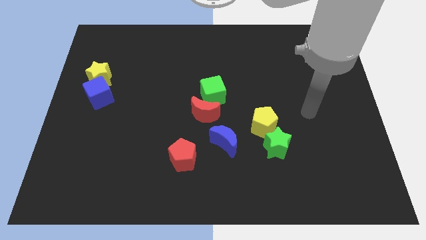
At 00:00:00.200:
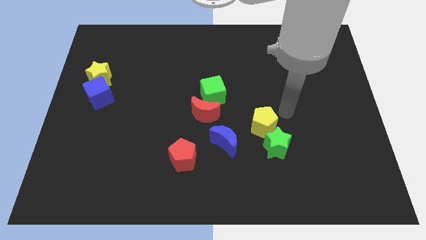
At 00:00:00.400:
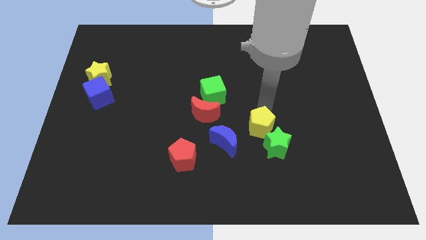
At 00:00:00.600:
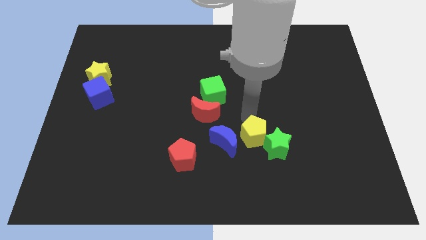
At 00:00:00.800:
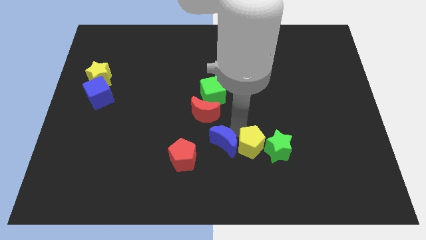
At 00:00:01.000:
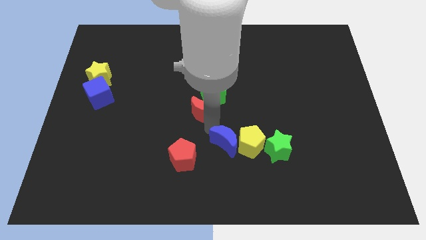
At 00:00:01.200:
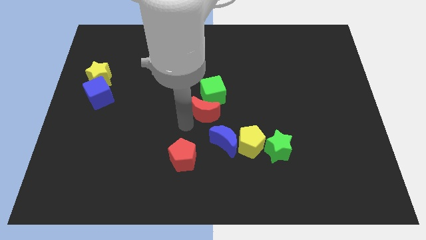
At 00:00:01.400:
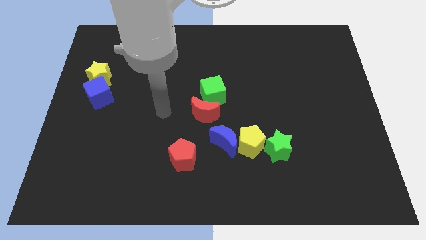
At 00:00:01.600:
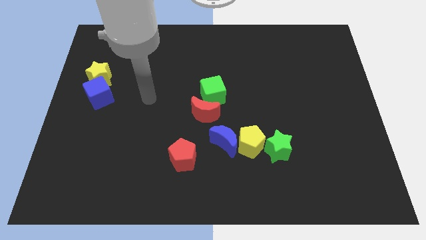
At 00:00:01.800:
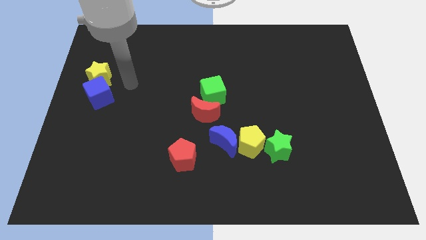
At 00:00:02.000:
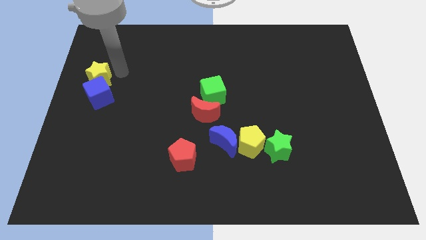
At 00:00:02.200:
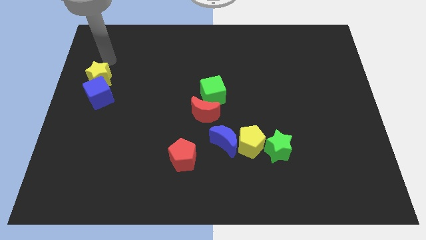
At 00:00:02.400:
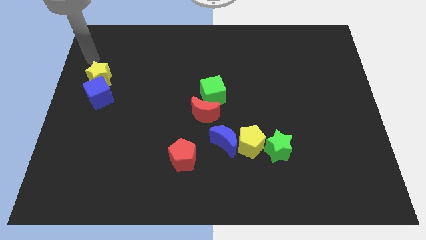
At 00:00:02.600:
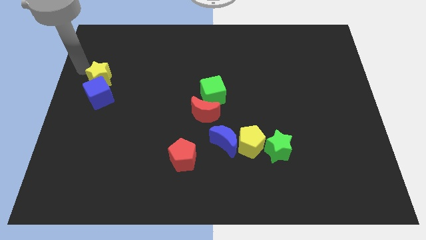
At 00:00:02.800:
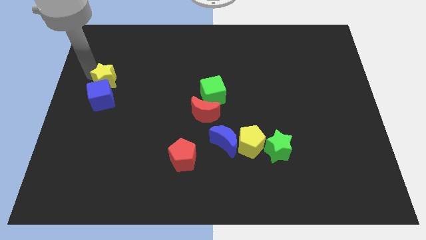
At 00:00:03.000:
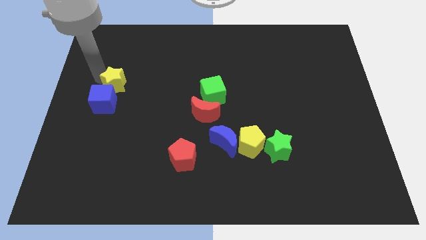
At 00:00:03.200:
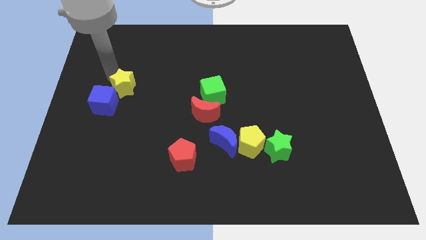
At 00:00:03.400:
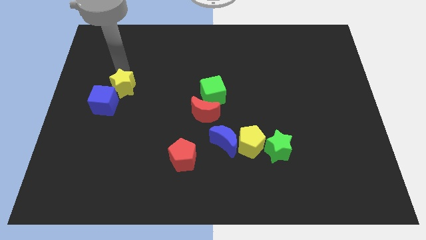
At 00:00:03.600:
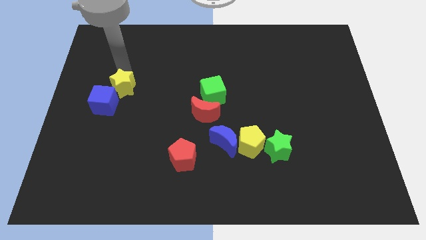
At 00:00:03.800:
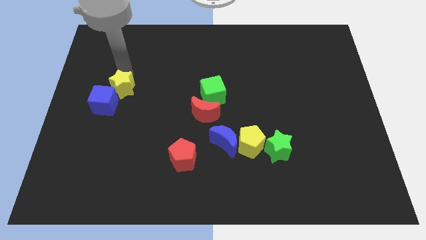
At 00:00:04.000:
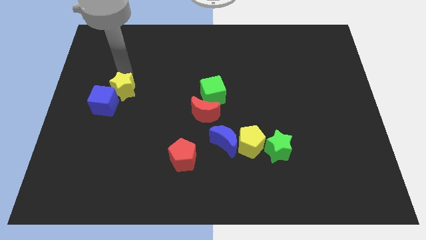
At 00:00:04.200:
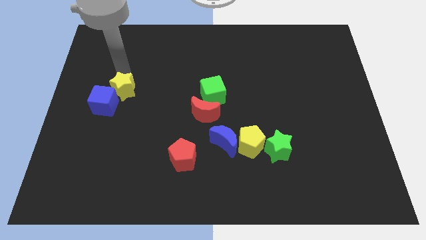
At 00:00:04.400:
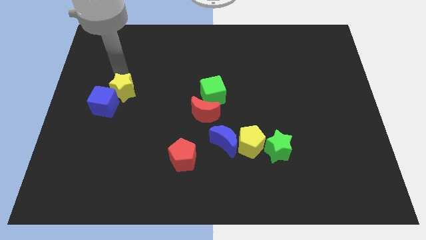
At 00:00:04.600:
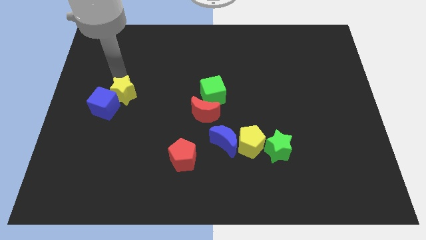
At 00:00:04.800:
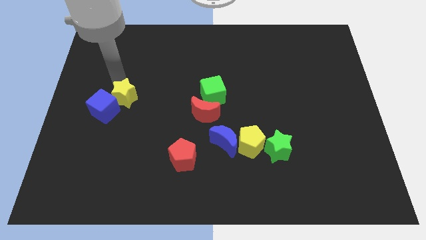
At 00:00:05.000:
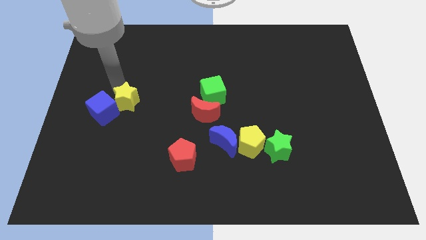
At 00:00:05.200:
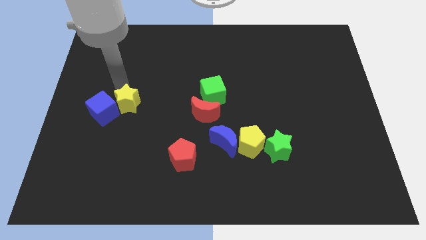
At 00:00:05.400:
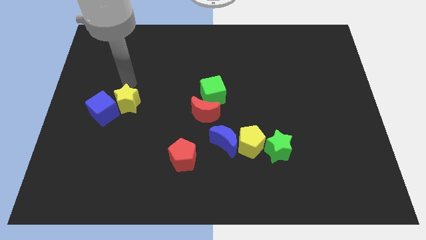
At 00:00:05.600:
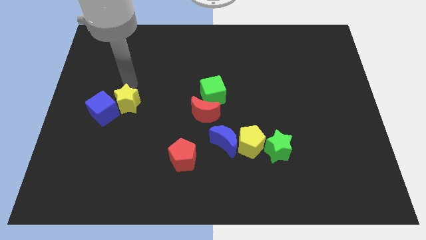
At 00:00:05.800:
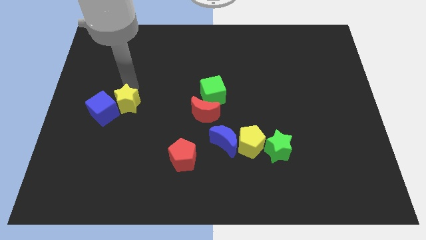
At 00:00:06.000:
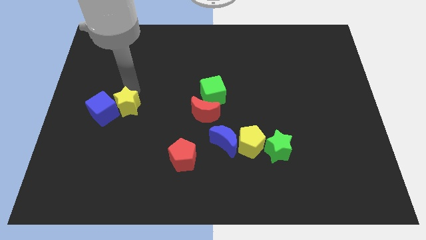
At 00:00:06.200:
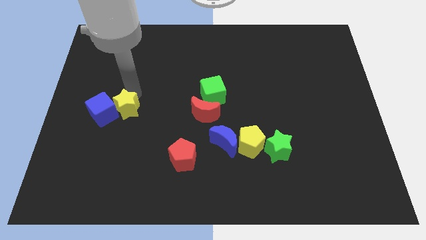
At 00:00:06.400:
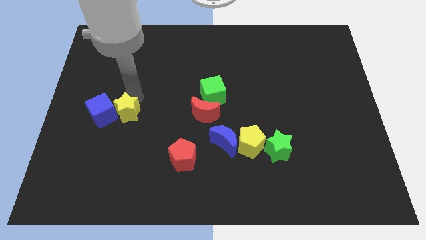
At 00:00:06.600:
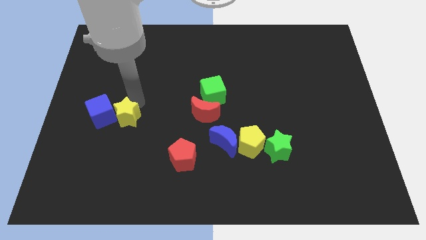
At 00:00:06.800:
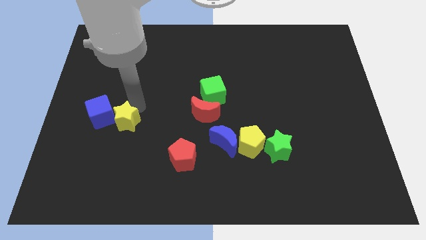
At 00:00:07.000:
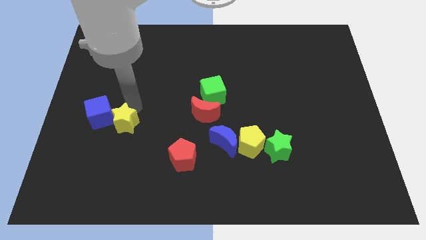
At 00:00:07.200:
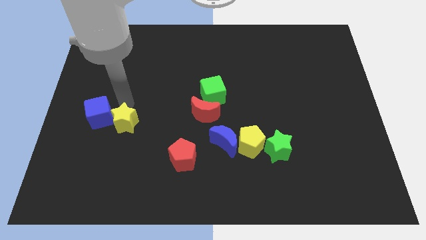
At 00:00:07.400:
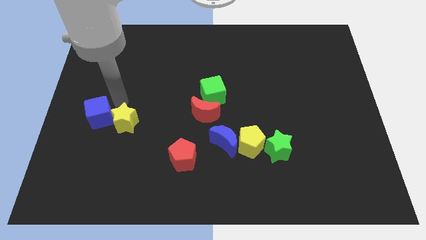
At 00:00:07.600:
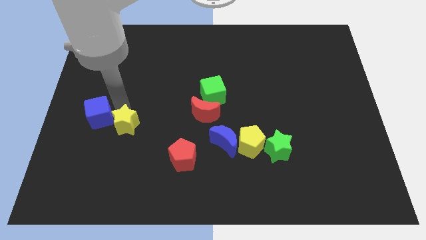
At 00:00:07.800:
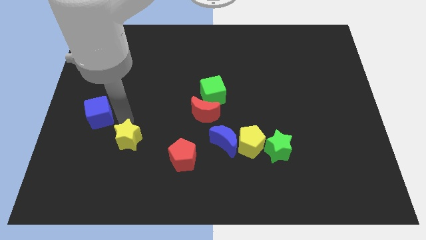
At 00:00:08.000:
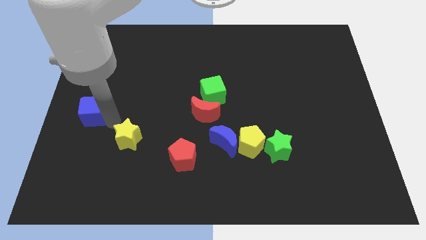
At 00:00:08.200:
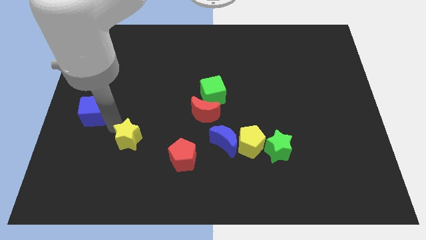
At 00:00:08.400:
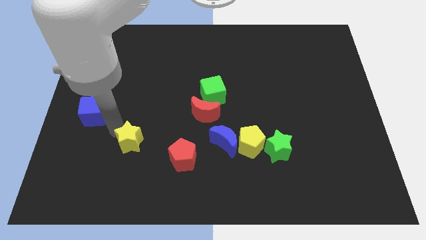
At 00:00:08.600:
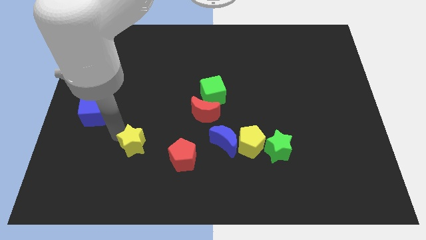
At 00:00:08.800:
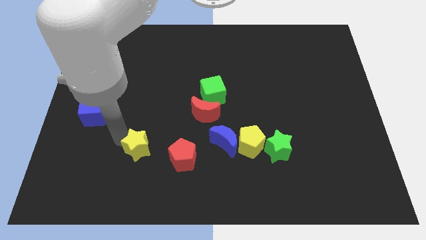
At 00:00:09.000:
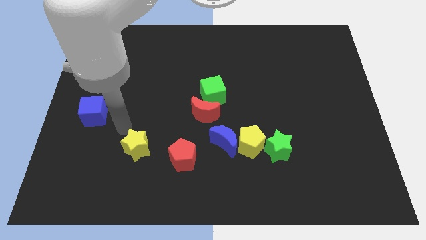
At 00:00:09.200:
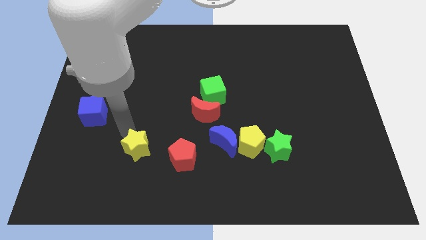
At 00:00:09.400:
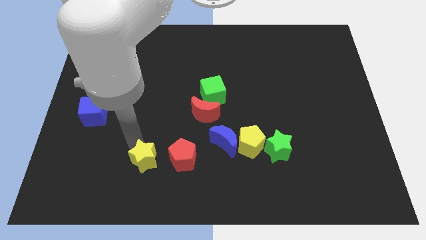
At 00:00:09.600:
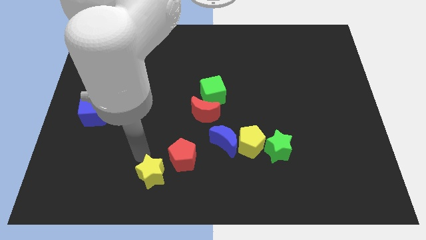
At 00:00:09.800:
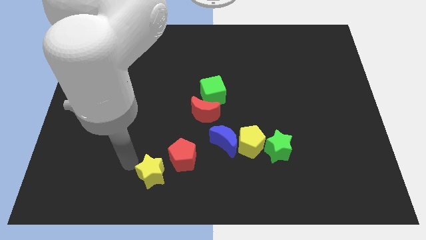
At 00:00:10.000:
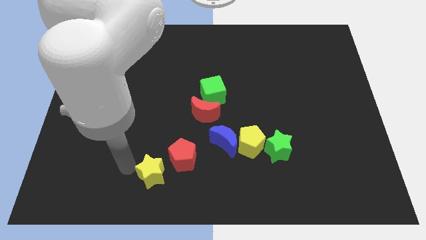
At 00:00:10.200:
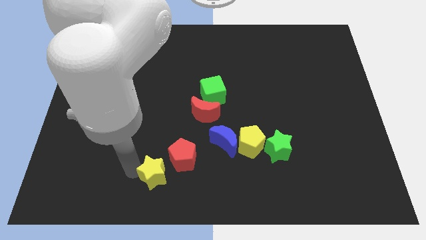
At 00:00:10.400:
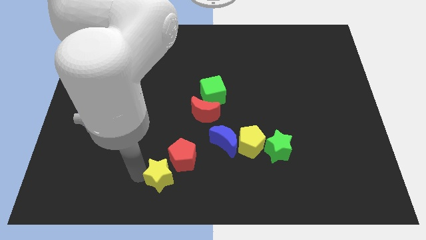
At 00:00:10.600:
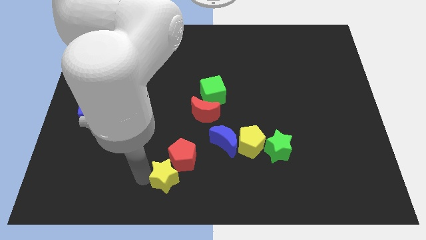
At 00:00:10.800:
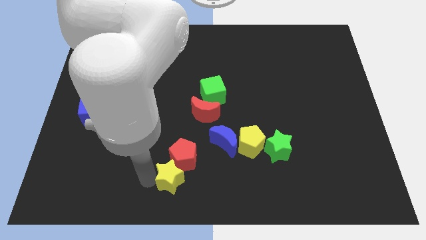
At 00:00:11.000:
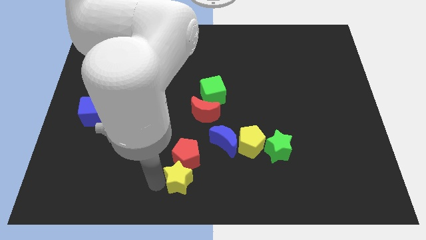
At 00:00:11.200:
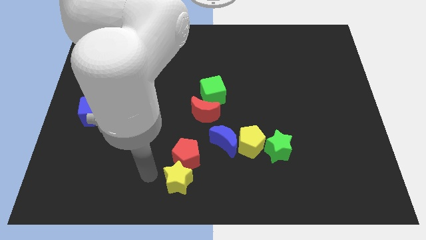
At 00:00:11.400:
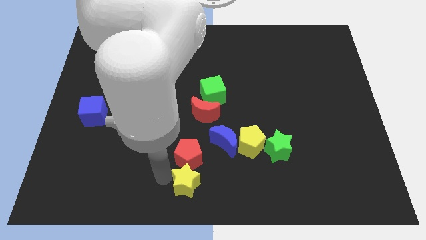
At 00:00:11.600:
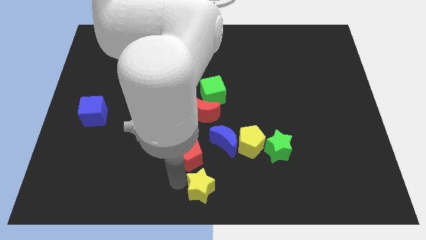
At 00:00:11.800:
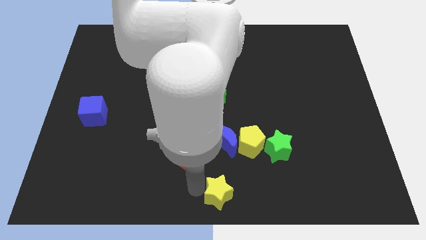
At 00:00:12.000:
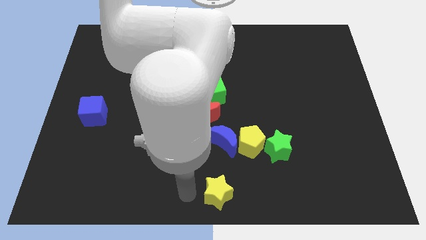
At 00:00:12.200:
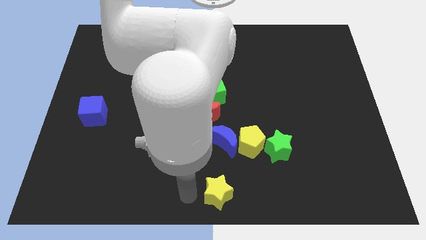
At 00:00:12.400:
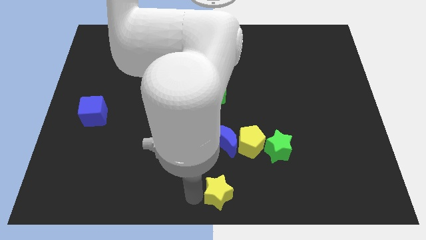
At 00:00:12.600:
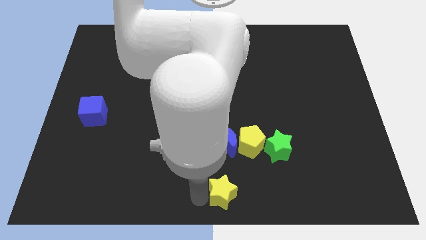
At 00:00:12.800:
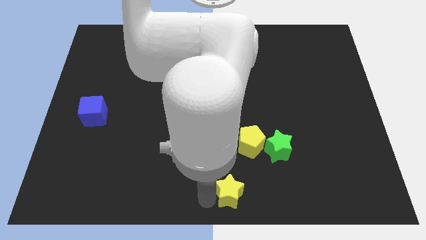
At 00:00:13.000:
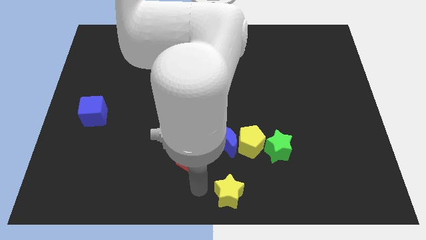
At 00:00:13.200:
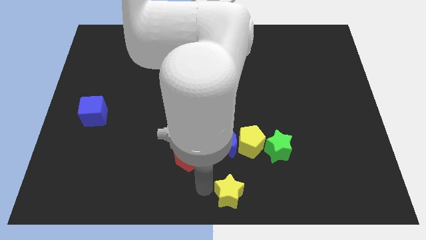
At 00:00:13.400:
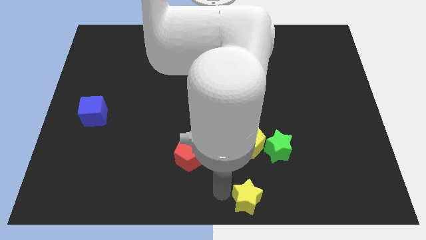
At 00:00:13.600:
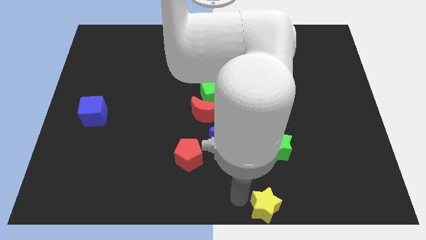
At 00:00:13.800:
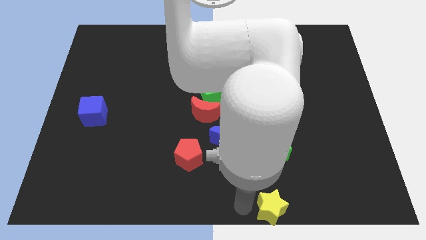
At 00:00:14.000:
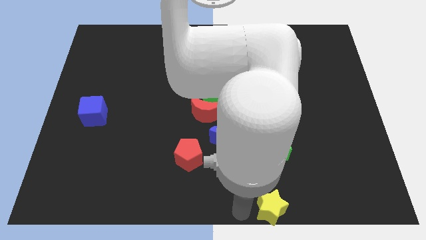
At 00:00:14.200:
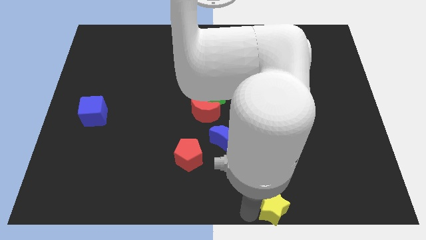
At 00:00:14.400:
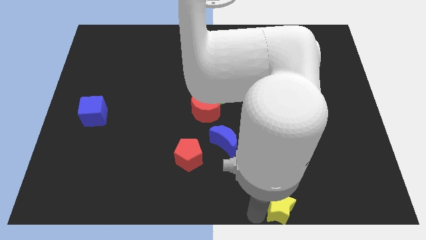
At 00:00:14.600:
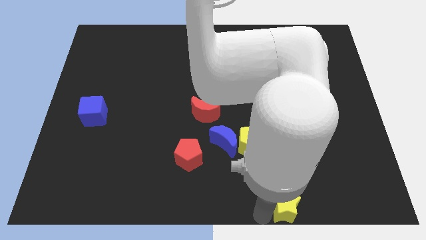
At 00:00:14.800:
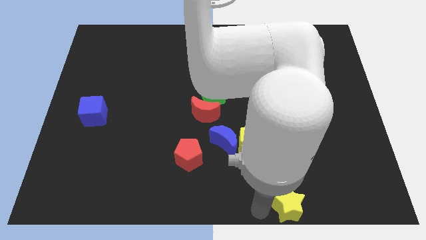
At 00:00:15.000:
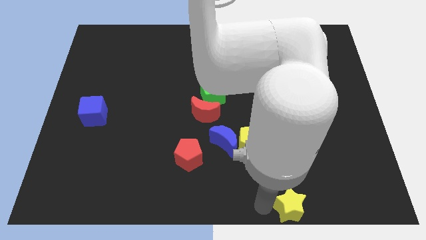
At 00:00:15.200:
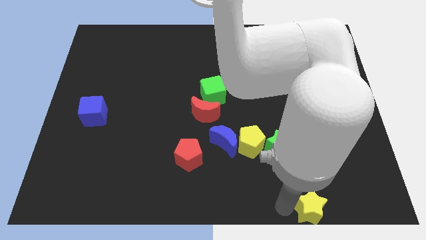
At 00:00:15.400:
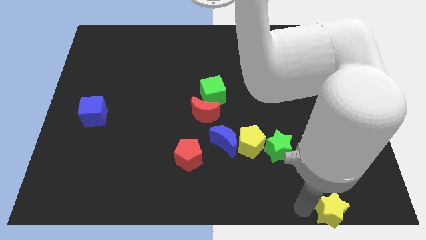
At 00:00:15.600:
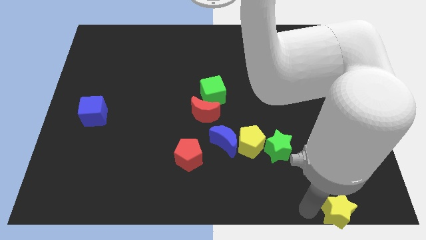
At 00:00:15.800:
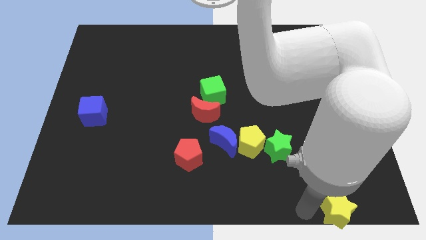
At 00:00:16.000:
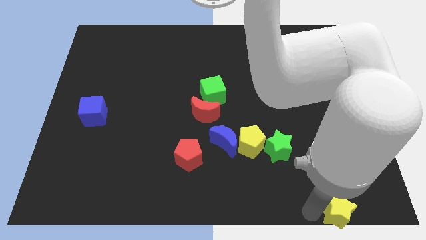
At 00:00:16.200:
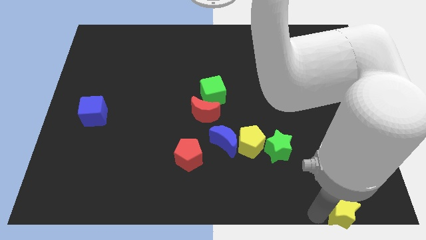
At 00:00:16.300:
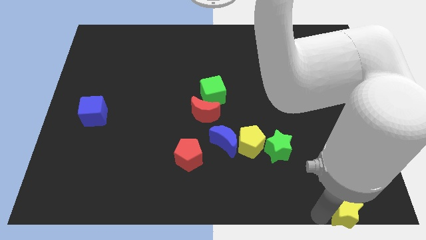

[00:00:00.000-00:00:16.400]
put the yellow star to the lower right corner
